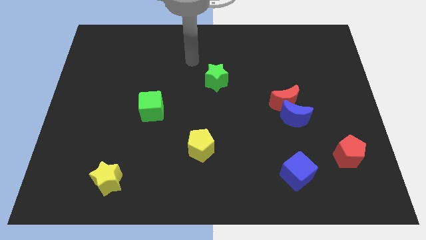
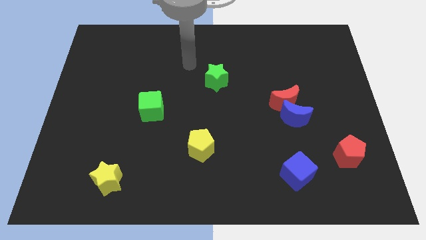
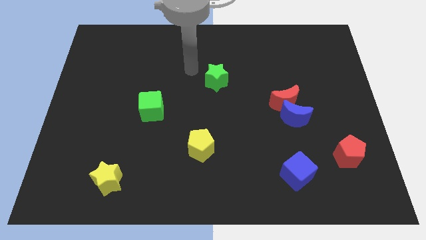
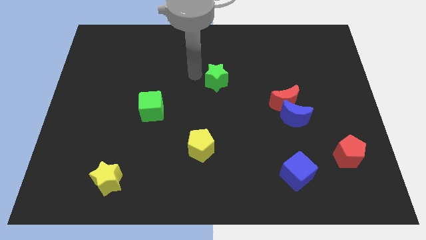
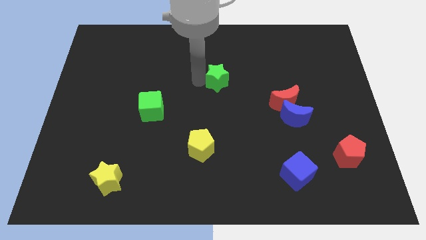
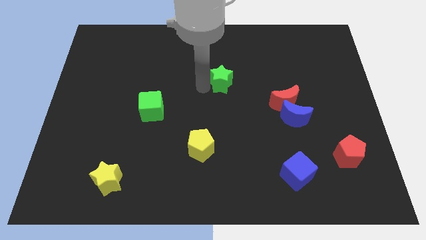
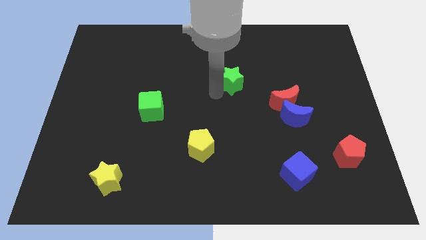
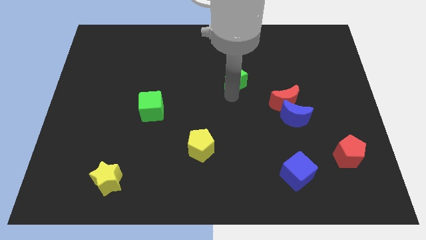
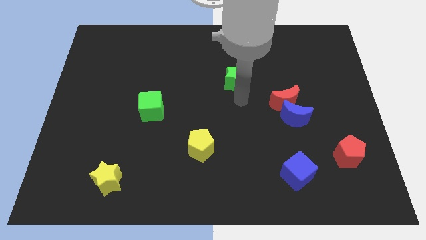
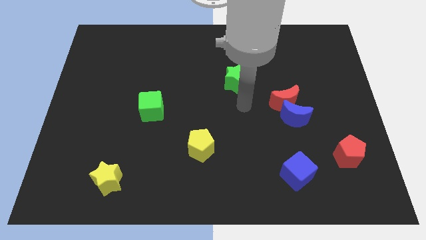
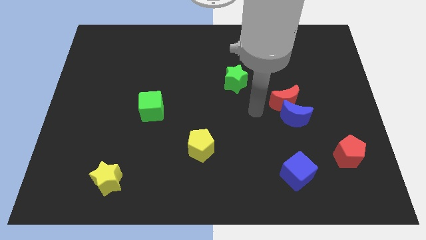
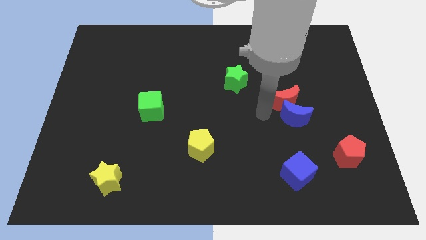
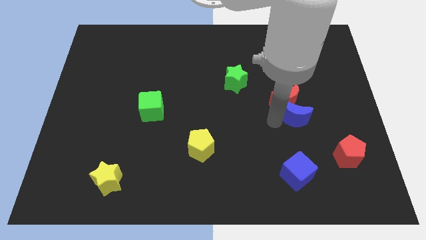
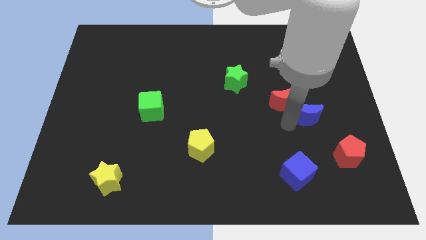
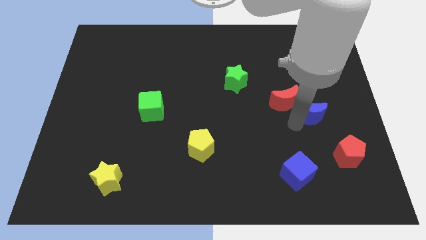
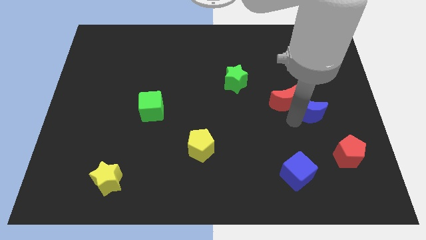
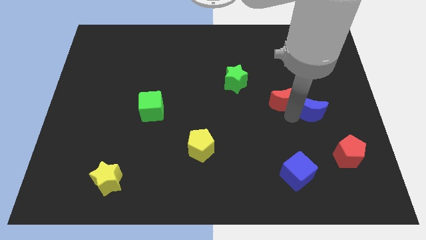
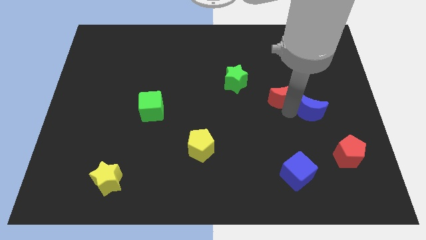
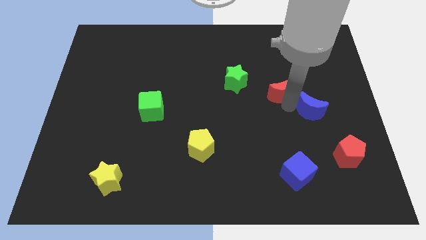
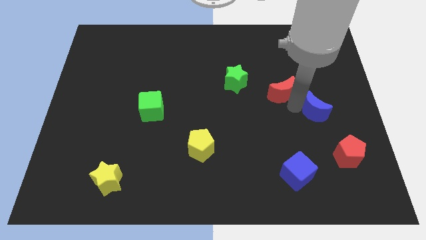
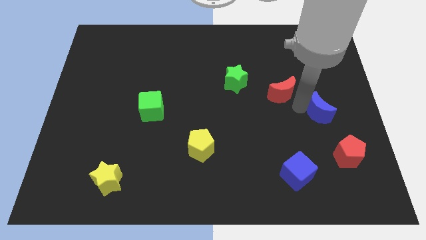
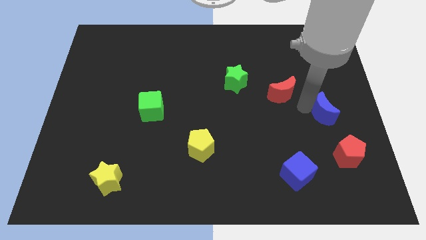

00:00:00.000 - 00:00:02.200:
pull the red moon apart from the blue moon

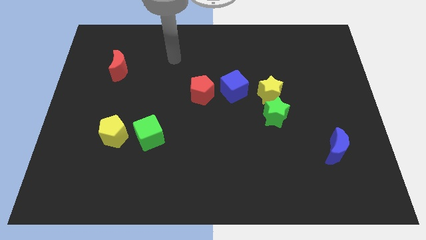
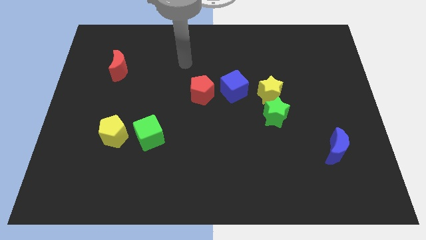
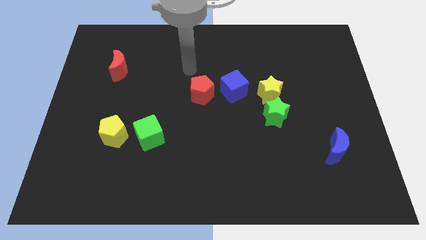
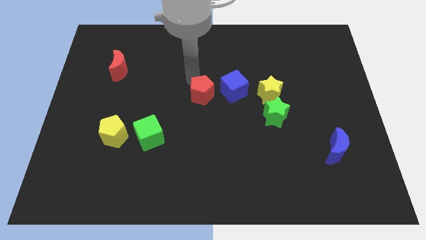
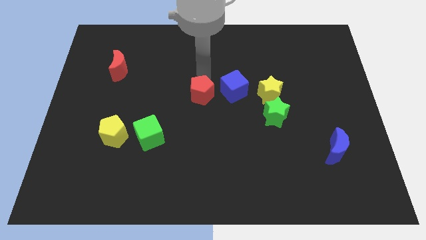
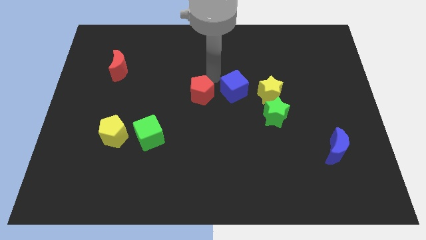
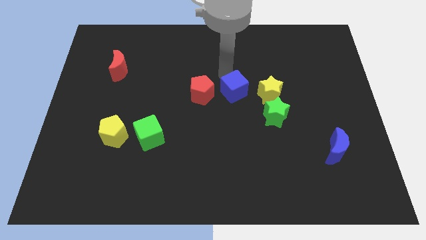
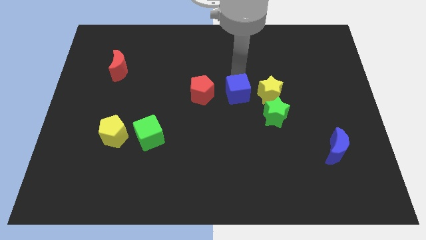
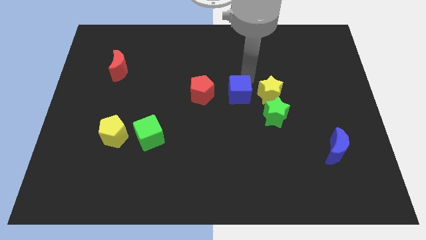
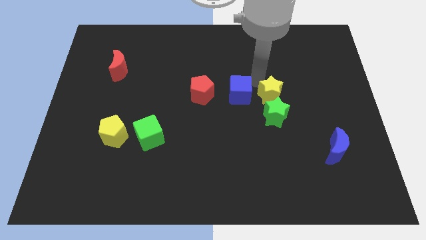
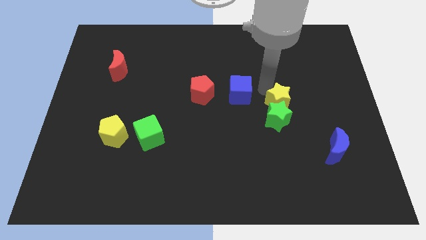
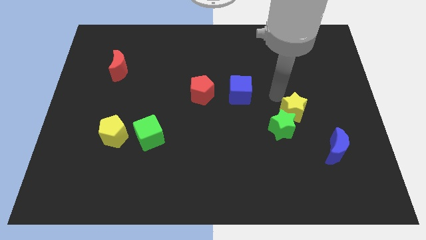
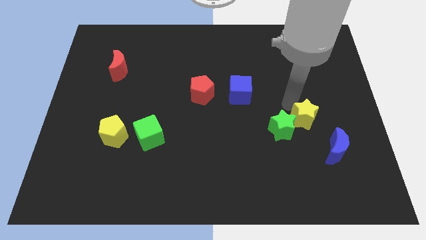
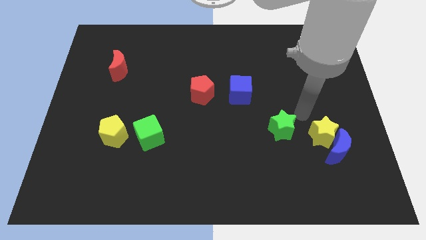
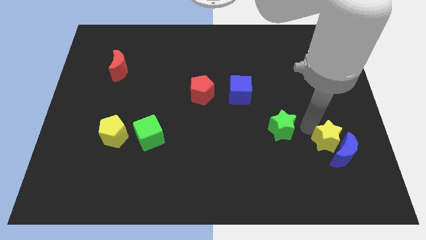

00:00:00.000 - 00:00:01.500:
pull the green star apart from the yellow star

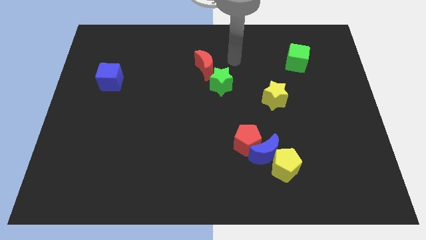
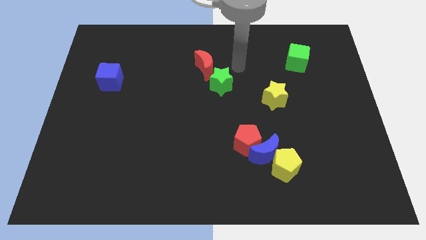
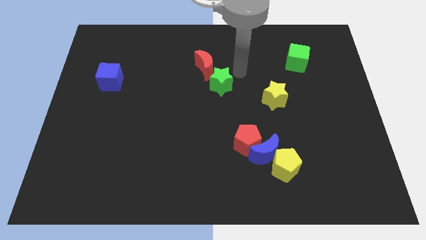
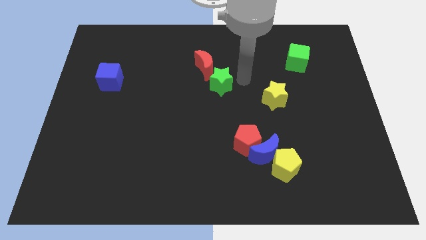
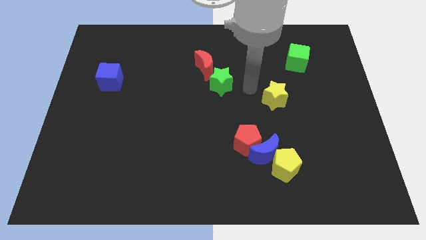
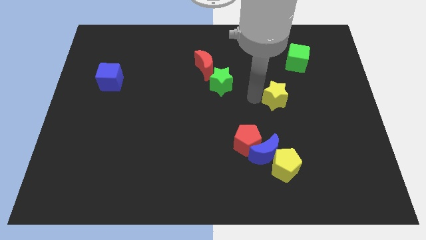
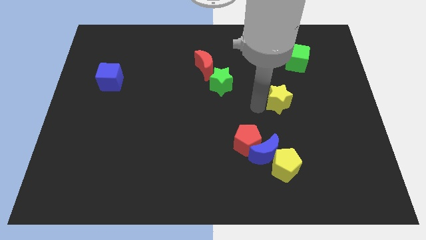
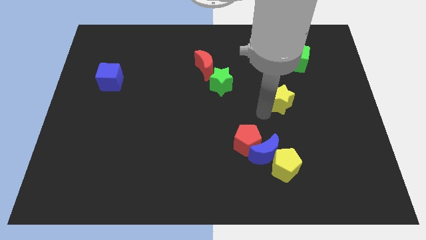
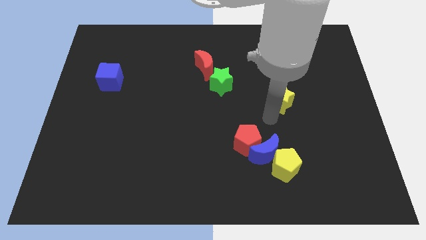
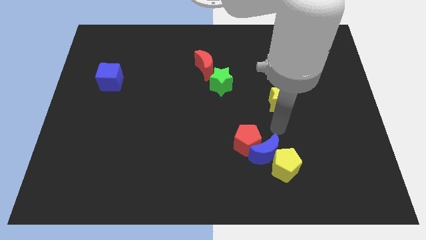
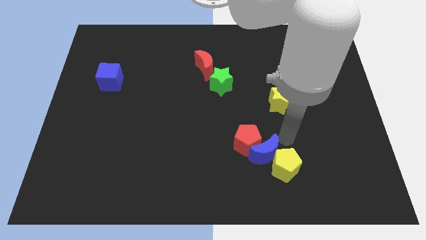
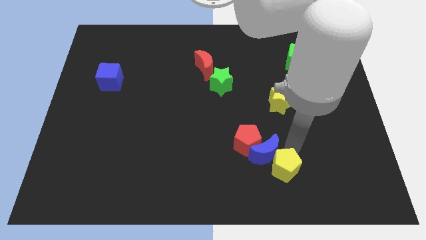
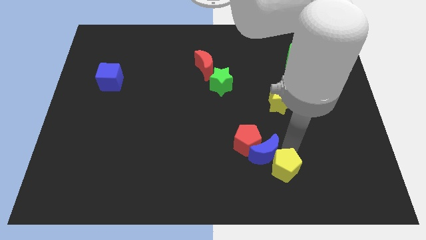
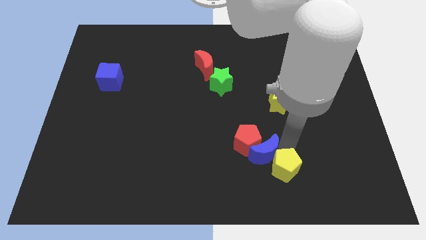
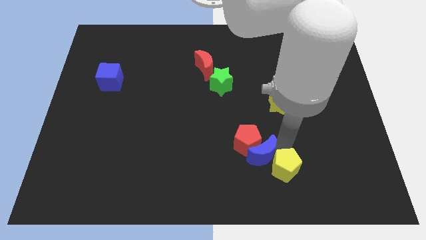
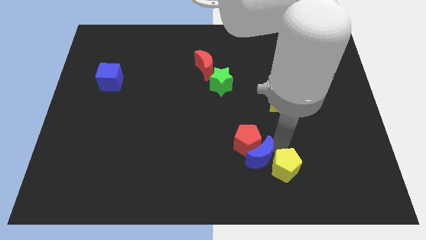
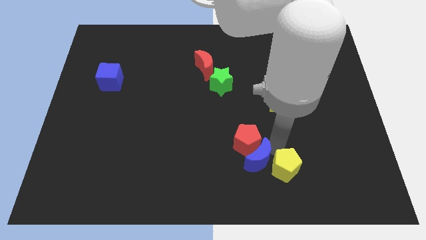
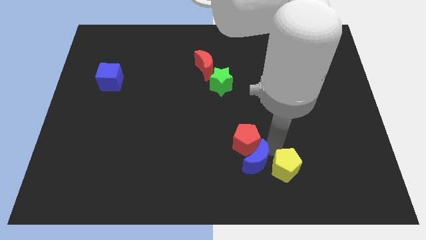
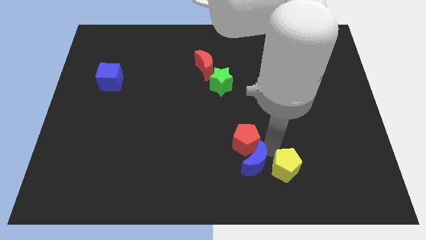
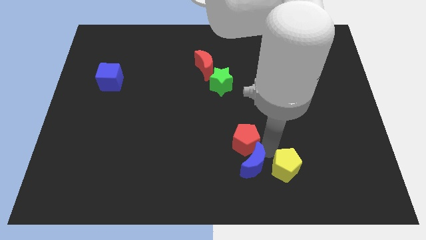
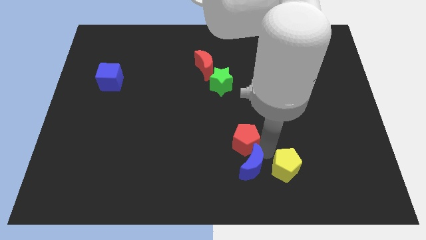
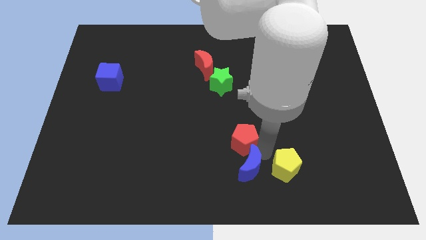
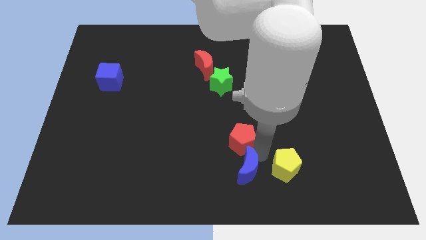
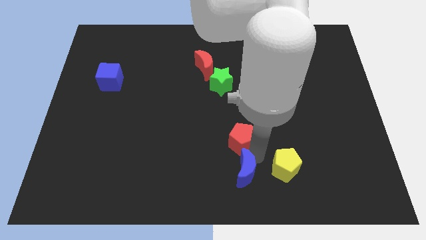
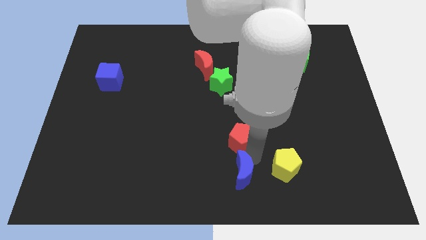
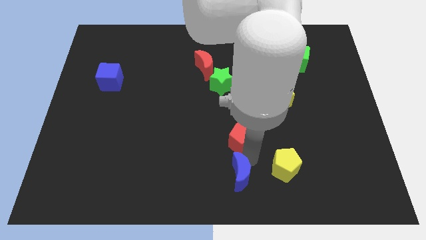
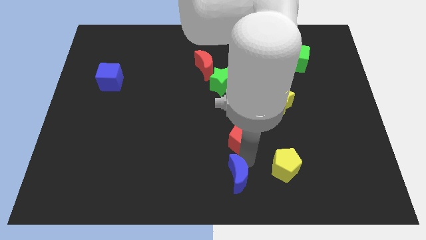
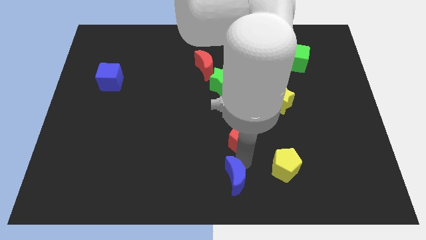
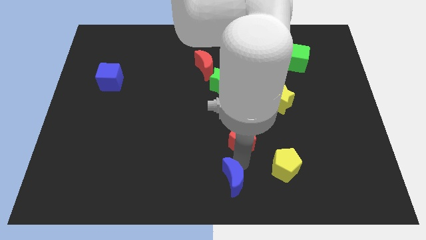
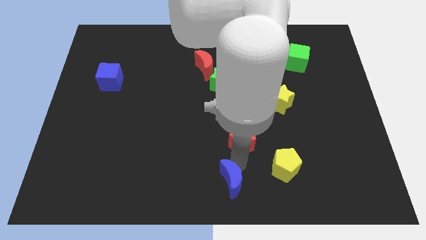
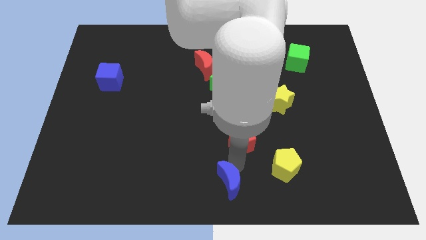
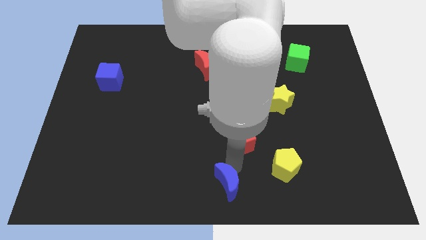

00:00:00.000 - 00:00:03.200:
move the blue moon away from the red pentagon and yellow pentagon

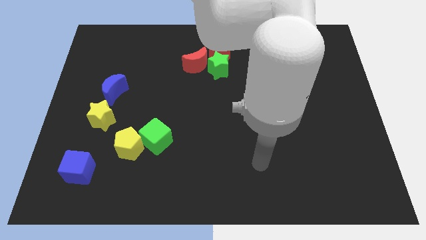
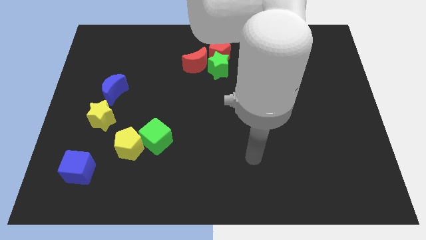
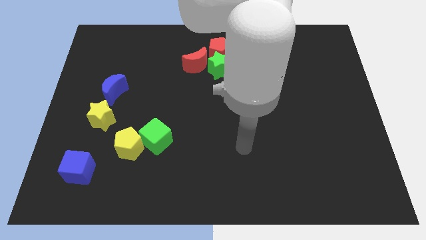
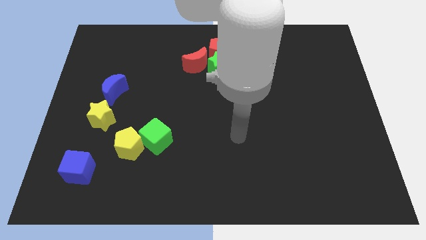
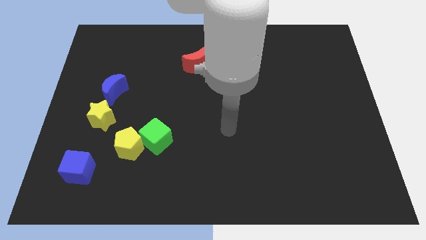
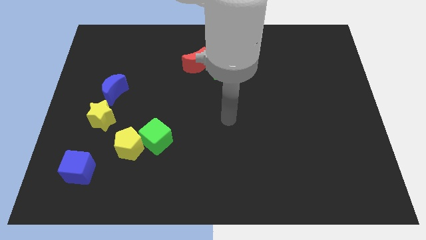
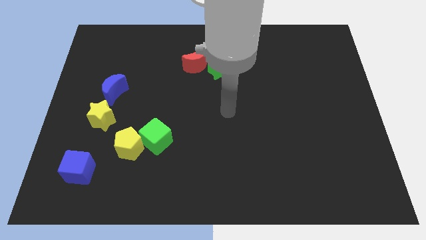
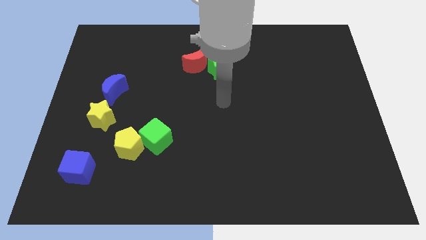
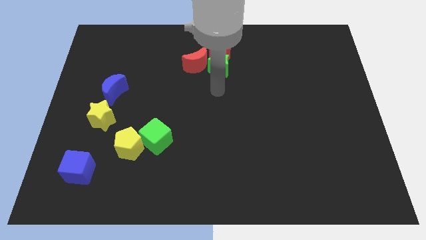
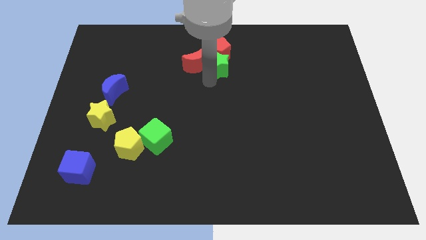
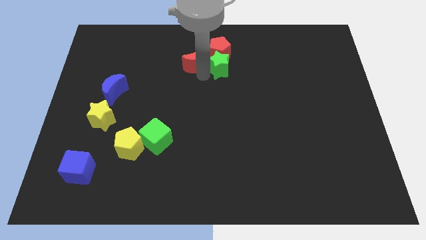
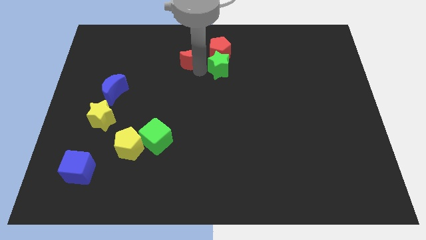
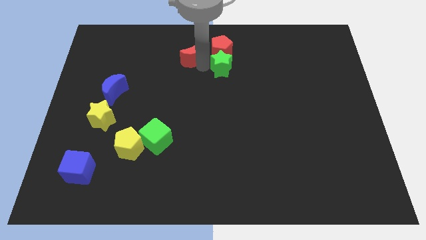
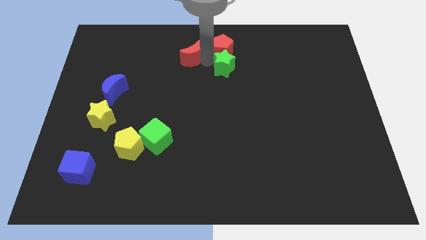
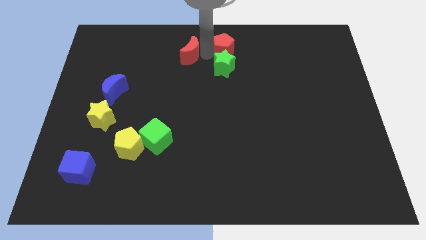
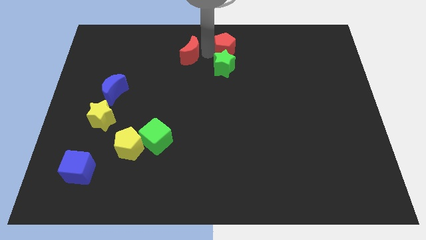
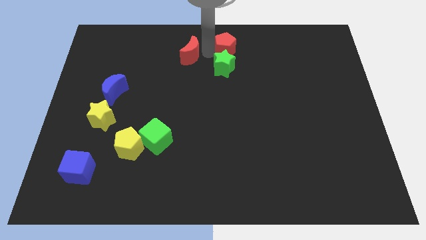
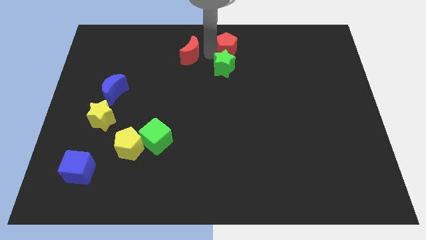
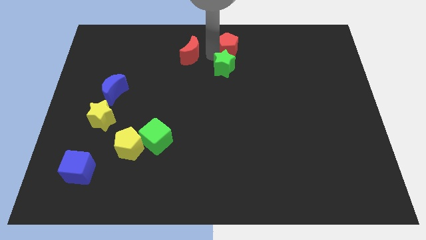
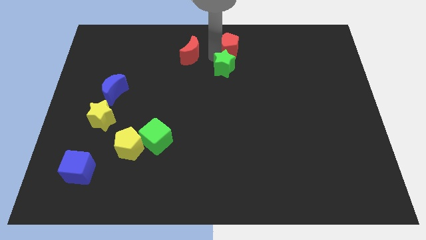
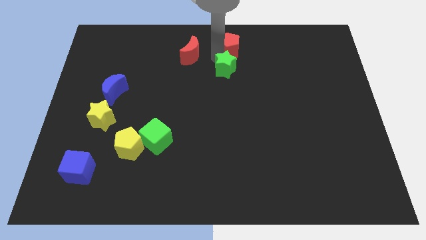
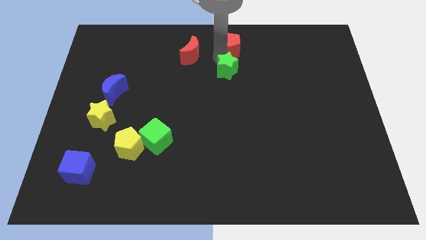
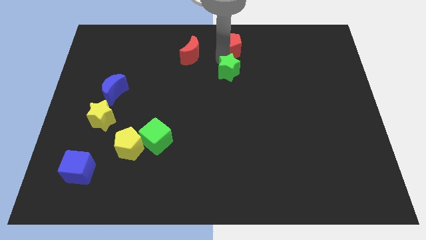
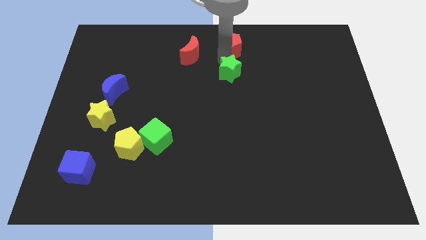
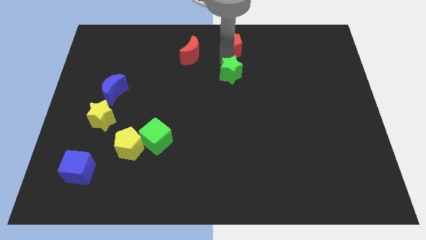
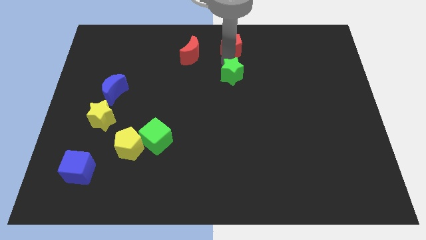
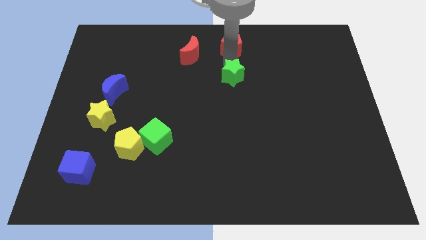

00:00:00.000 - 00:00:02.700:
move the green star away from the red moon and red pentagon
